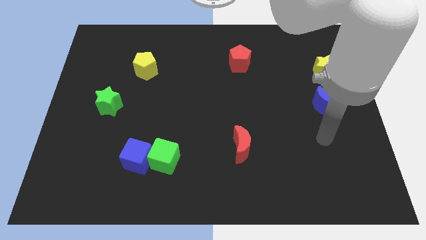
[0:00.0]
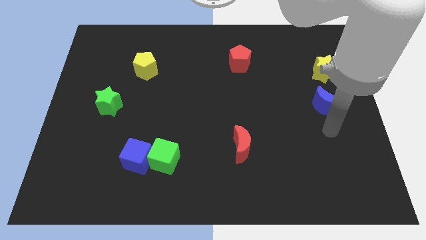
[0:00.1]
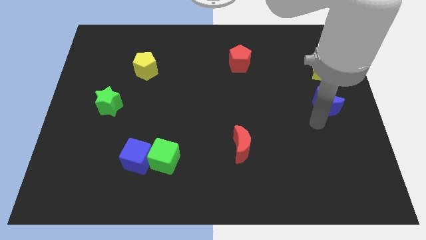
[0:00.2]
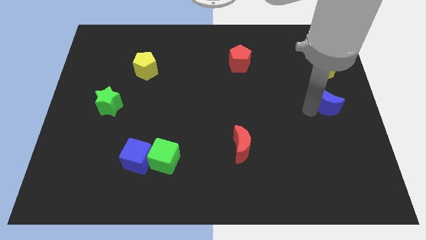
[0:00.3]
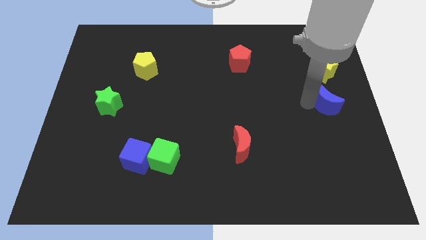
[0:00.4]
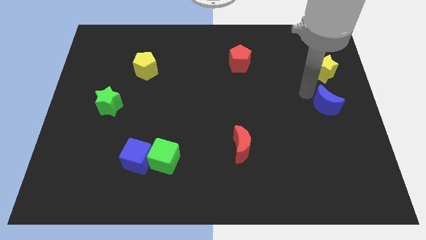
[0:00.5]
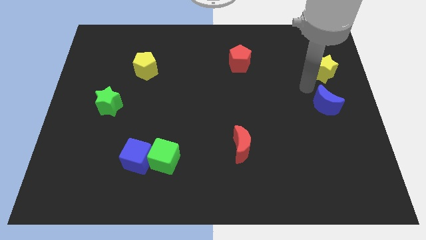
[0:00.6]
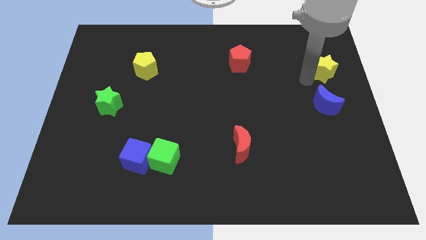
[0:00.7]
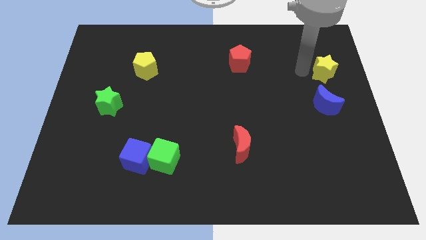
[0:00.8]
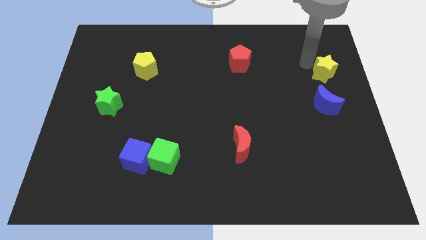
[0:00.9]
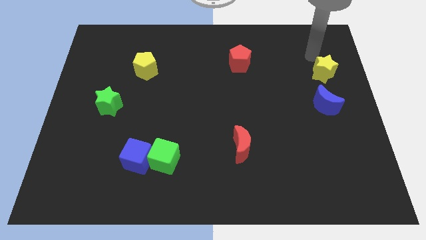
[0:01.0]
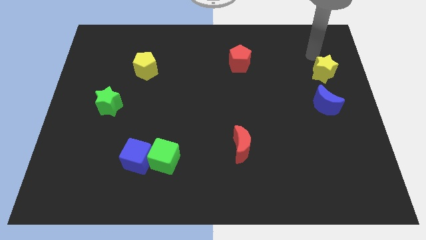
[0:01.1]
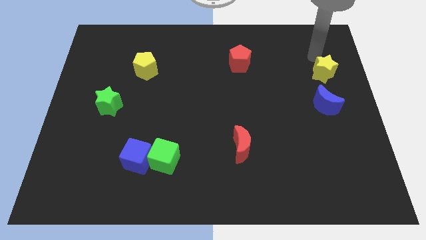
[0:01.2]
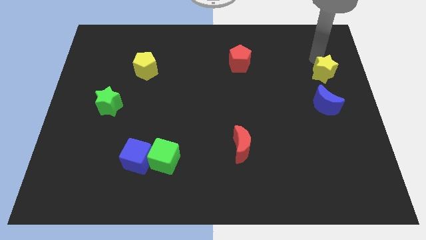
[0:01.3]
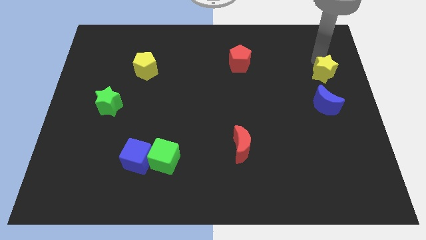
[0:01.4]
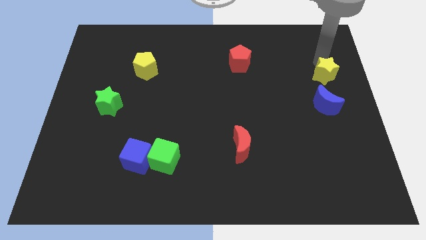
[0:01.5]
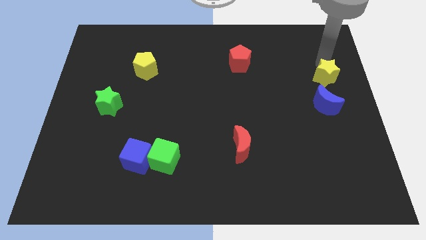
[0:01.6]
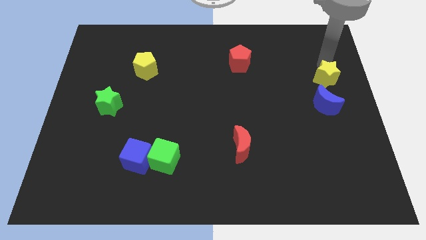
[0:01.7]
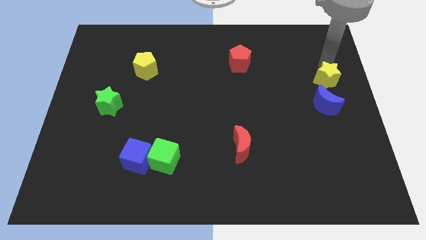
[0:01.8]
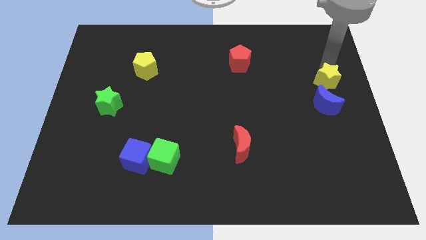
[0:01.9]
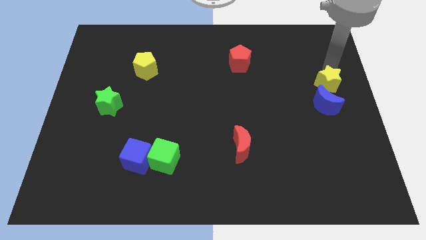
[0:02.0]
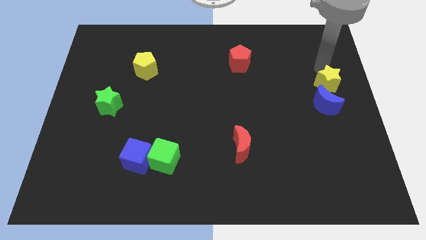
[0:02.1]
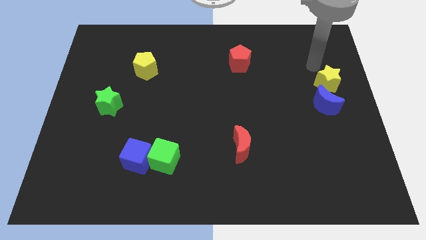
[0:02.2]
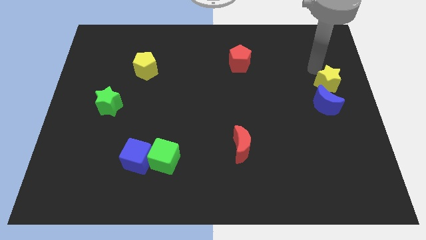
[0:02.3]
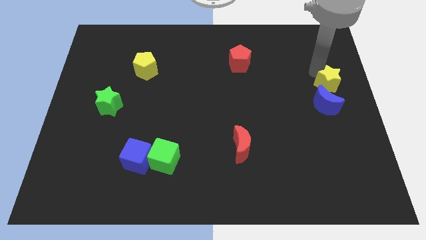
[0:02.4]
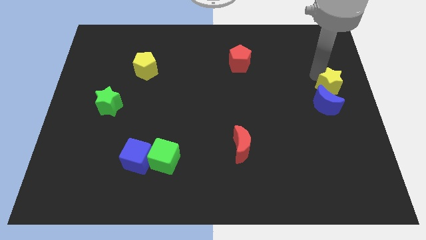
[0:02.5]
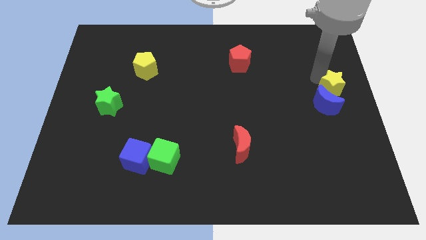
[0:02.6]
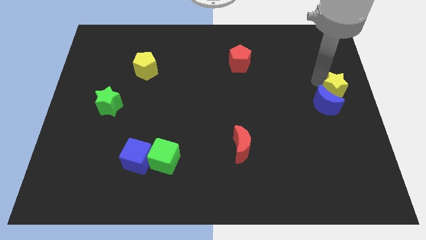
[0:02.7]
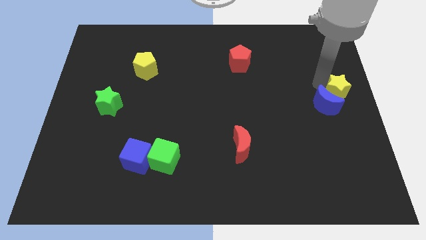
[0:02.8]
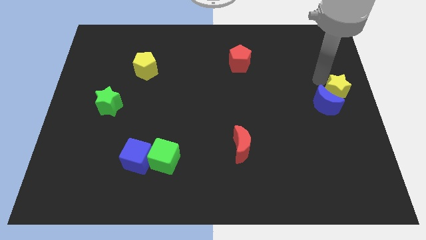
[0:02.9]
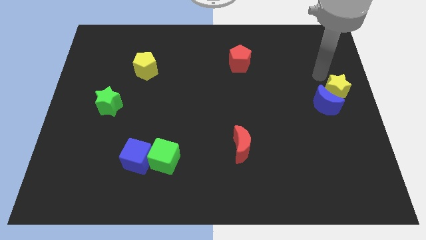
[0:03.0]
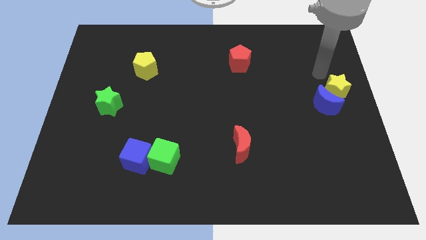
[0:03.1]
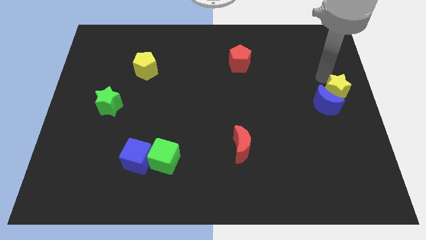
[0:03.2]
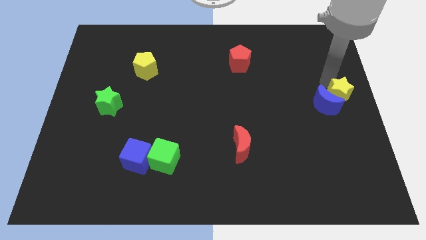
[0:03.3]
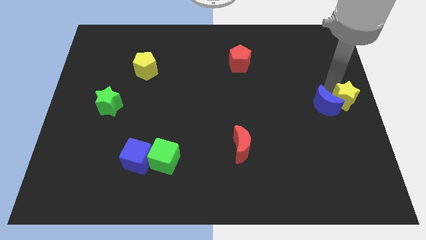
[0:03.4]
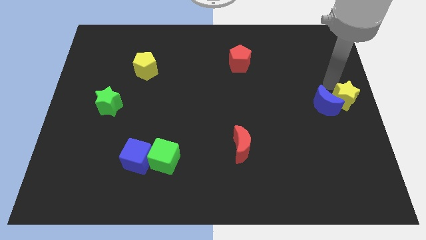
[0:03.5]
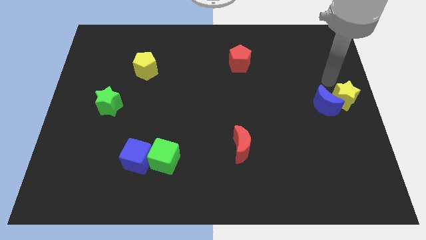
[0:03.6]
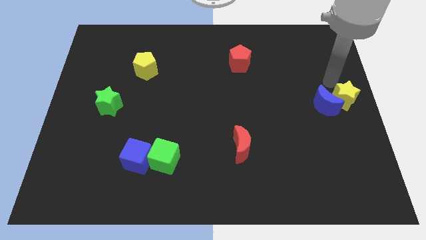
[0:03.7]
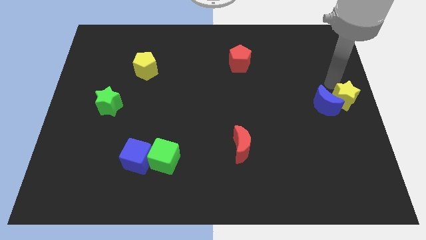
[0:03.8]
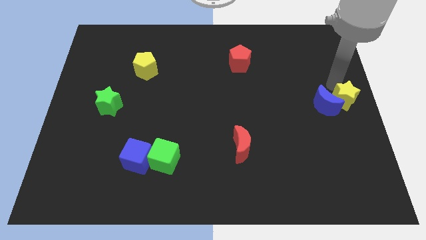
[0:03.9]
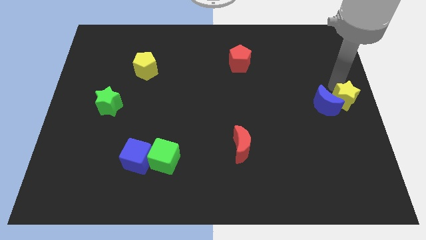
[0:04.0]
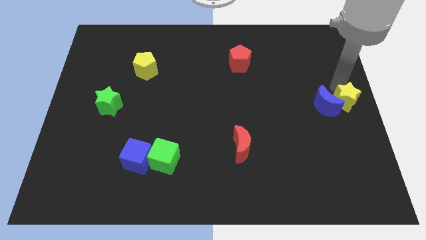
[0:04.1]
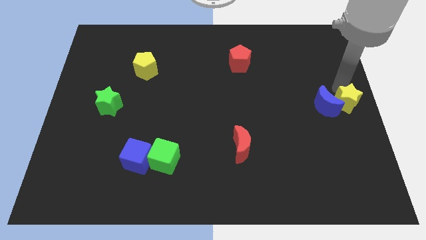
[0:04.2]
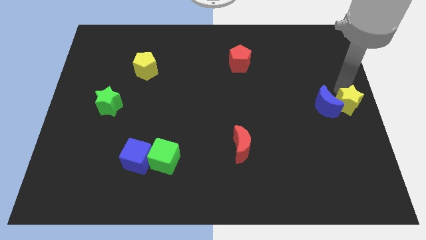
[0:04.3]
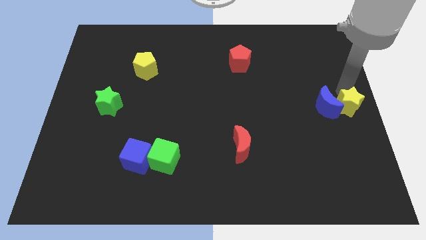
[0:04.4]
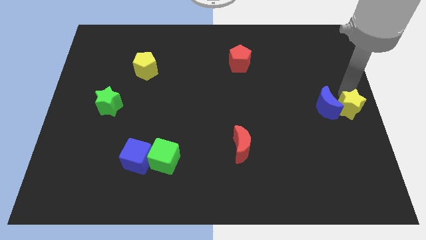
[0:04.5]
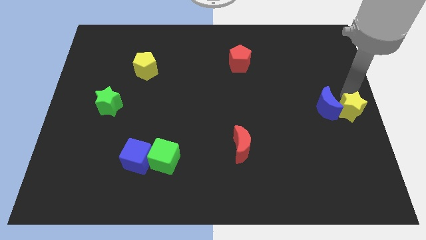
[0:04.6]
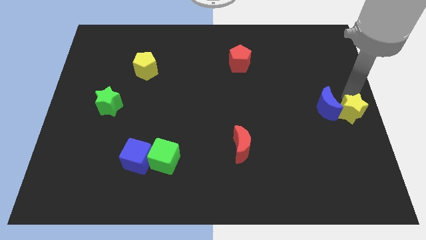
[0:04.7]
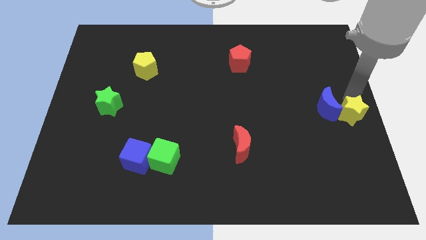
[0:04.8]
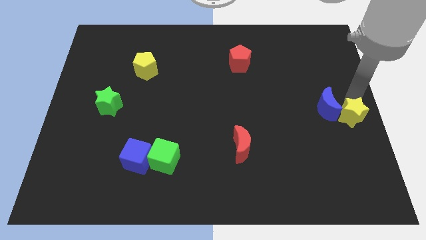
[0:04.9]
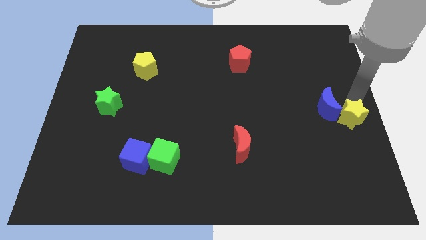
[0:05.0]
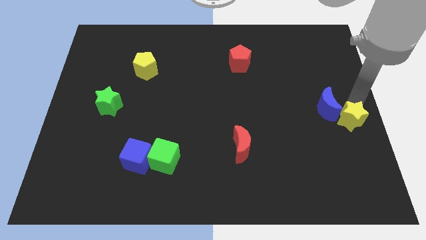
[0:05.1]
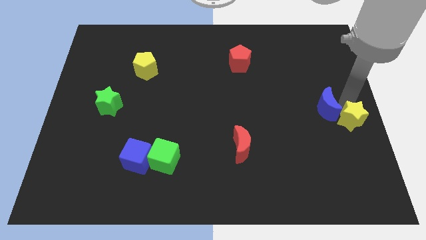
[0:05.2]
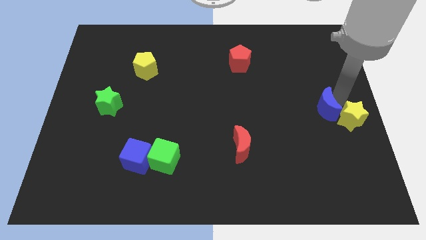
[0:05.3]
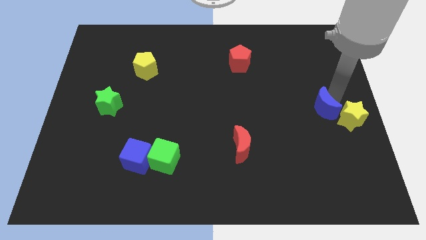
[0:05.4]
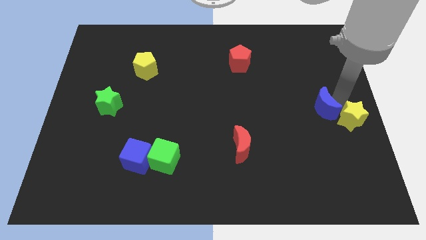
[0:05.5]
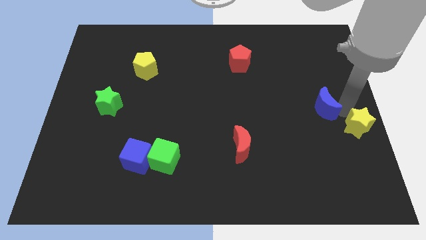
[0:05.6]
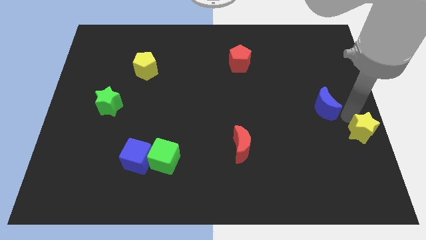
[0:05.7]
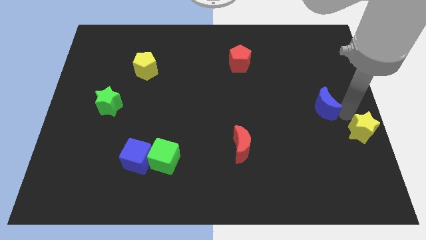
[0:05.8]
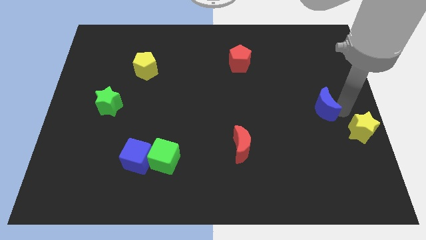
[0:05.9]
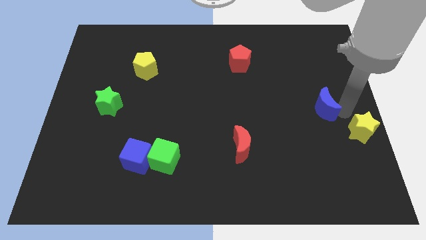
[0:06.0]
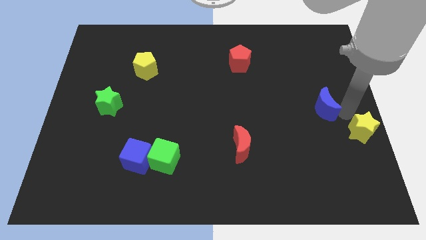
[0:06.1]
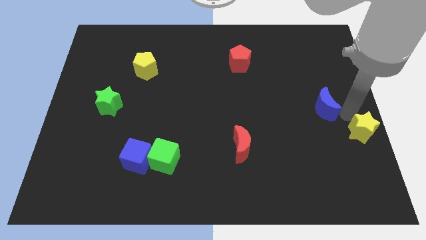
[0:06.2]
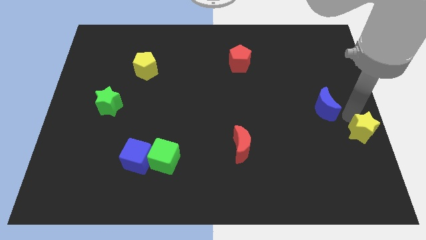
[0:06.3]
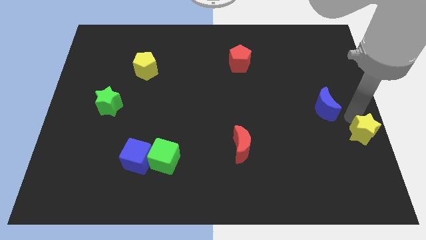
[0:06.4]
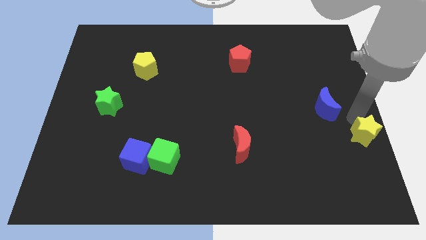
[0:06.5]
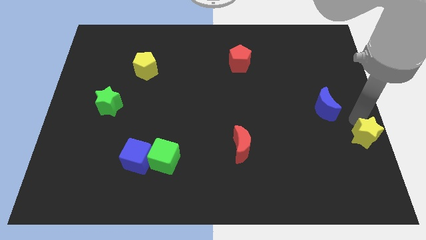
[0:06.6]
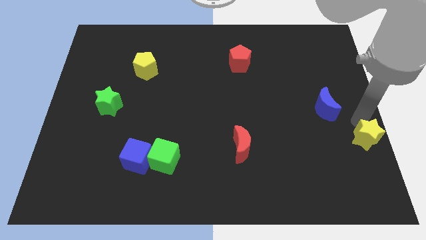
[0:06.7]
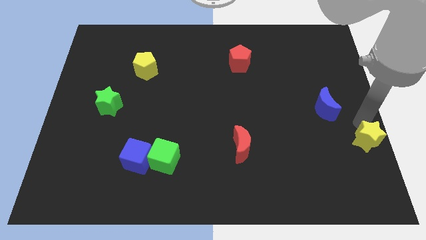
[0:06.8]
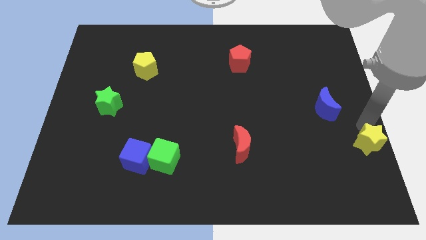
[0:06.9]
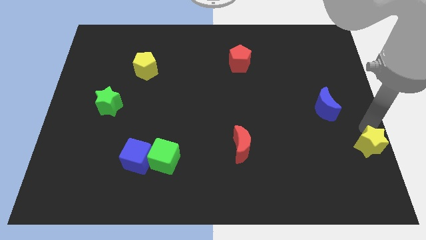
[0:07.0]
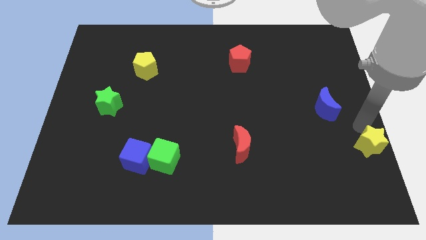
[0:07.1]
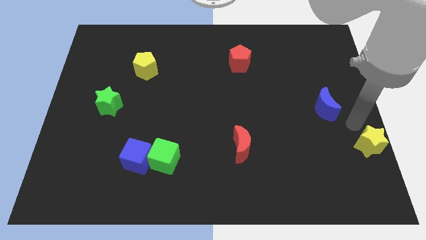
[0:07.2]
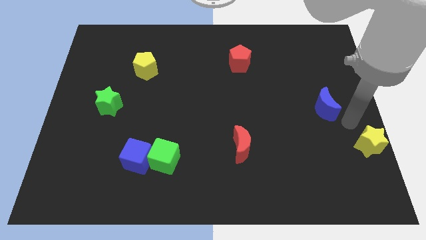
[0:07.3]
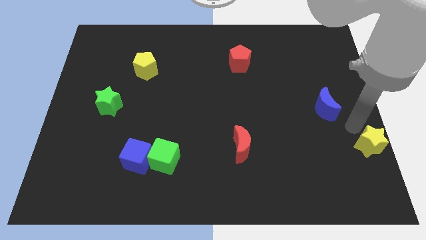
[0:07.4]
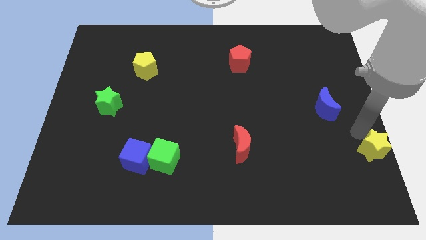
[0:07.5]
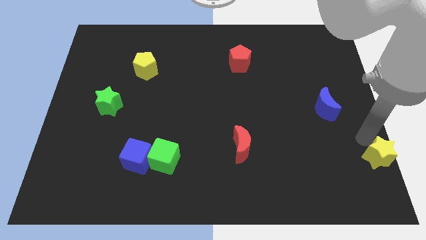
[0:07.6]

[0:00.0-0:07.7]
push the yellow star to the bottom right
